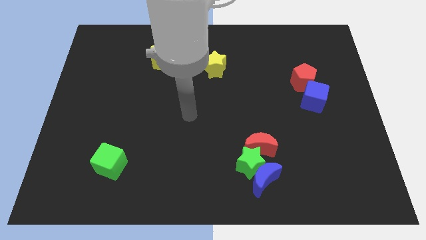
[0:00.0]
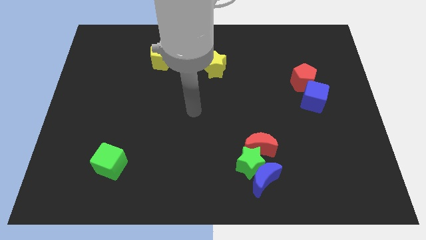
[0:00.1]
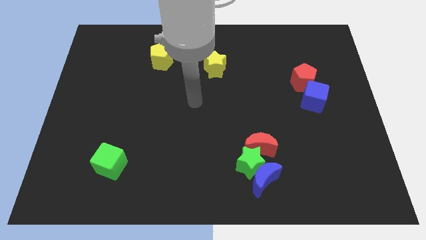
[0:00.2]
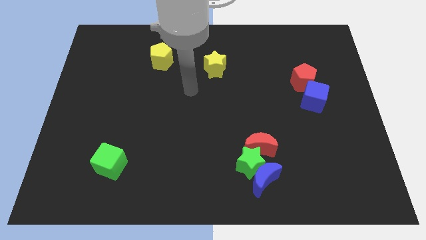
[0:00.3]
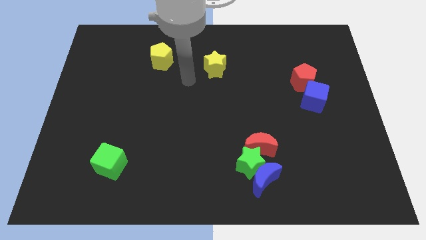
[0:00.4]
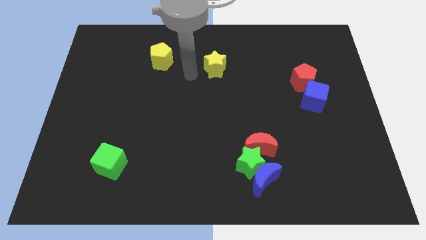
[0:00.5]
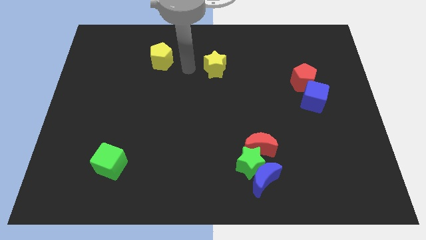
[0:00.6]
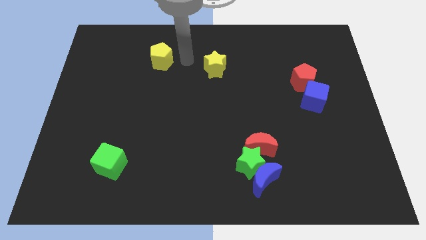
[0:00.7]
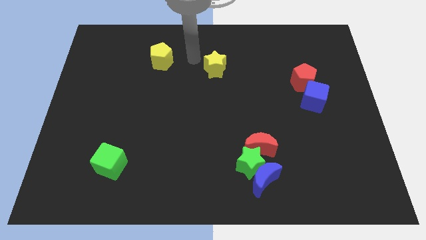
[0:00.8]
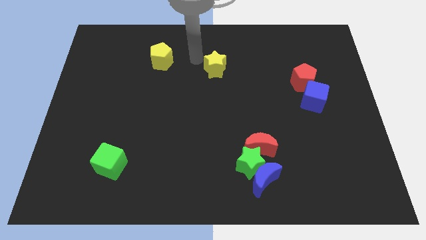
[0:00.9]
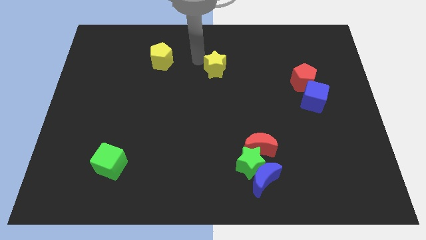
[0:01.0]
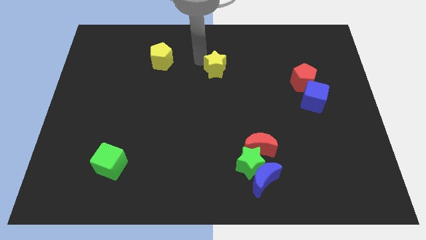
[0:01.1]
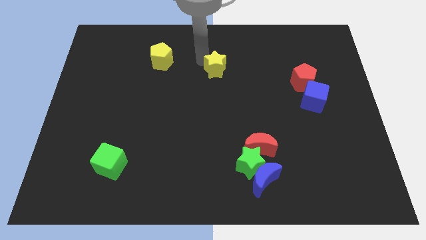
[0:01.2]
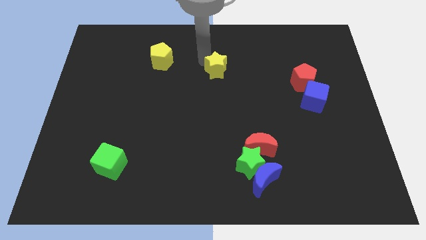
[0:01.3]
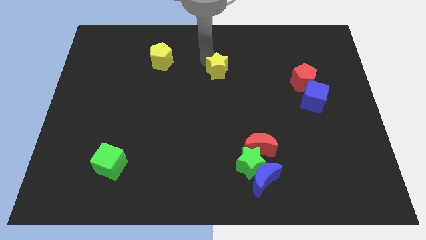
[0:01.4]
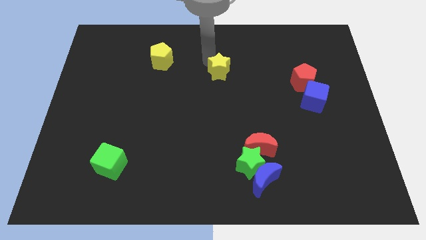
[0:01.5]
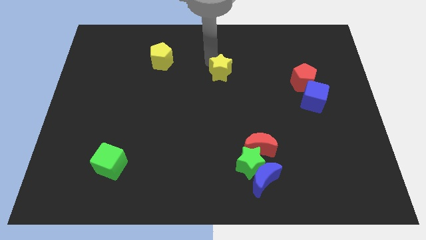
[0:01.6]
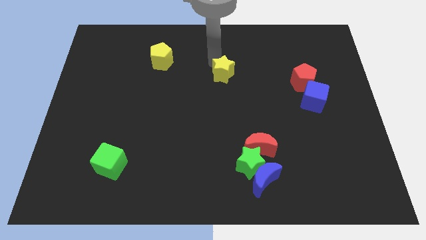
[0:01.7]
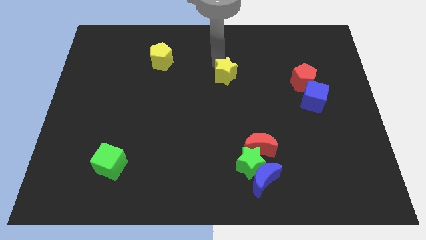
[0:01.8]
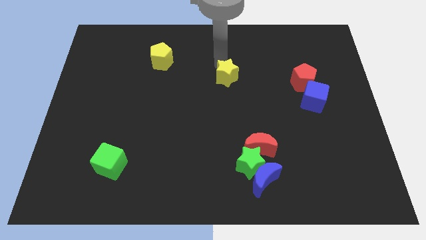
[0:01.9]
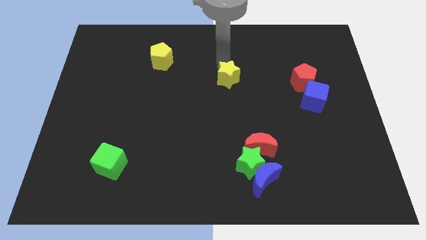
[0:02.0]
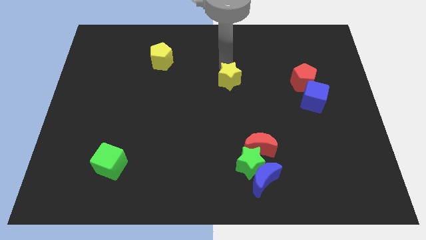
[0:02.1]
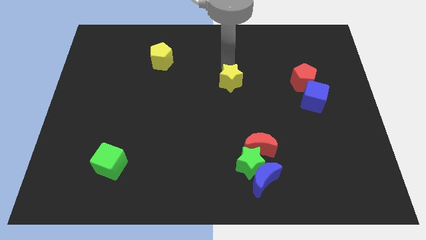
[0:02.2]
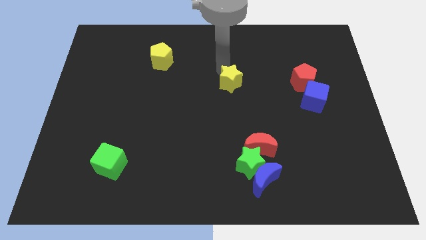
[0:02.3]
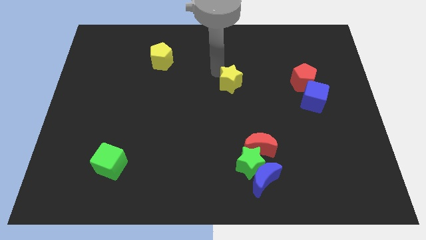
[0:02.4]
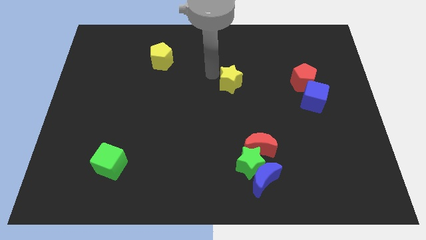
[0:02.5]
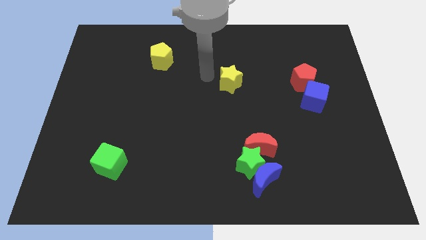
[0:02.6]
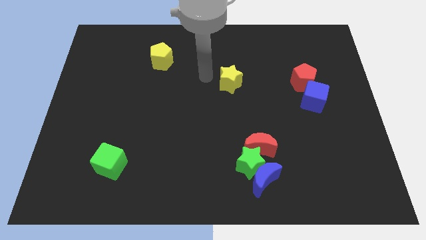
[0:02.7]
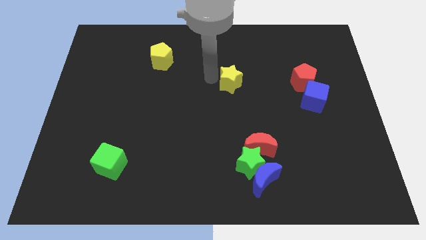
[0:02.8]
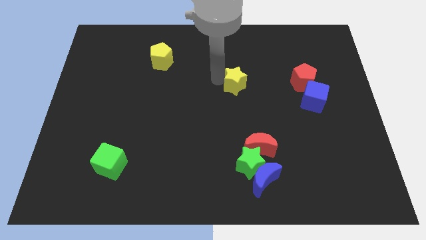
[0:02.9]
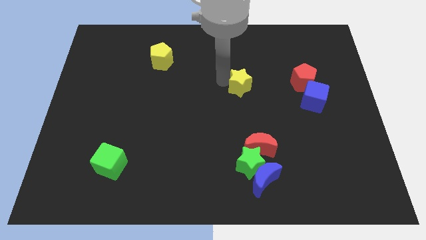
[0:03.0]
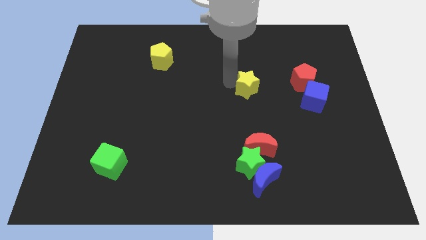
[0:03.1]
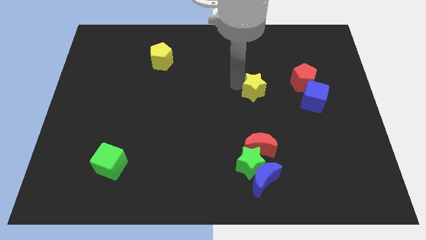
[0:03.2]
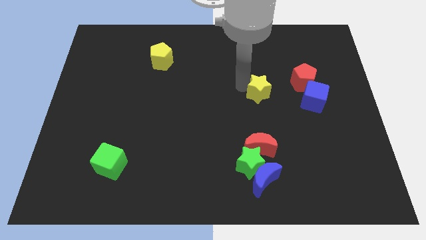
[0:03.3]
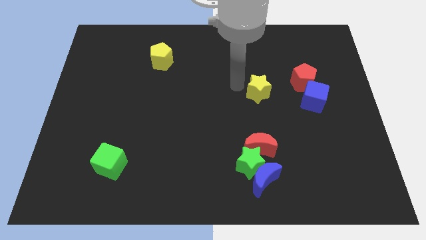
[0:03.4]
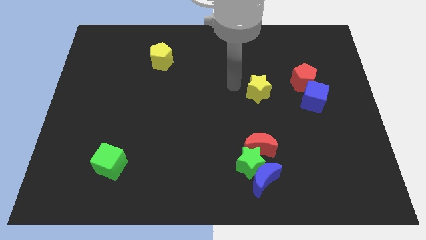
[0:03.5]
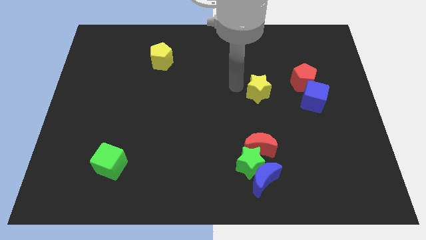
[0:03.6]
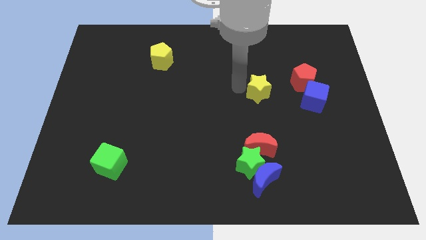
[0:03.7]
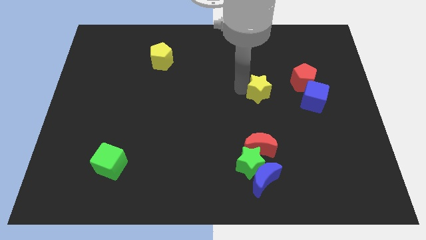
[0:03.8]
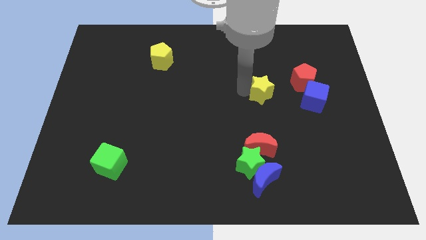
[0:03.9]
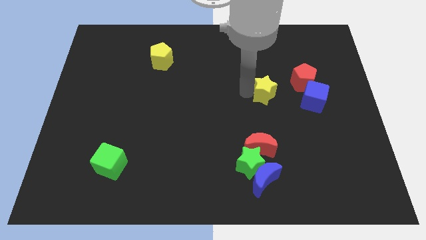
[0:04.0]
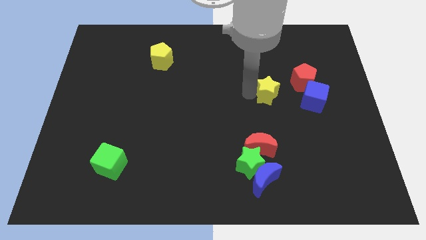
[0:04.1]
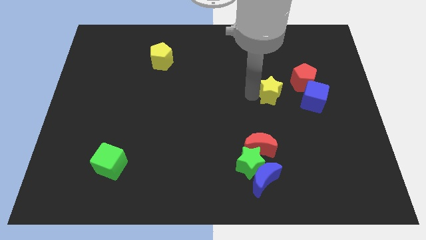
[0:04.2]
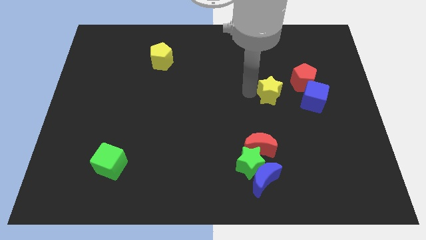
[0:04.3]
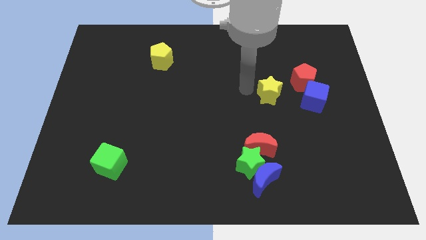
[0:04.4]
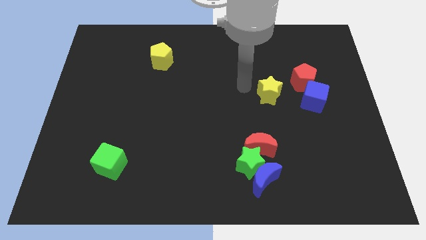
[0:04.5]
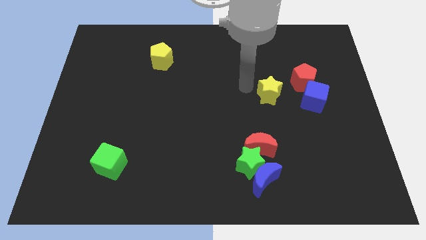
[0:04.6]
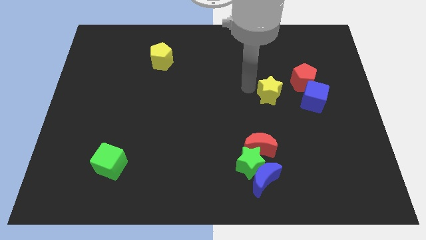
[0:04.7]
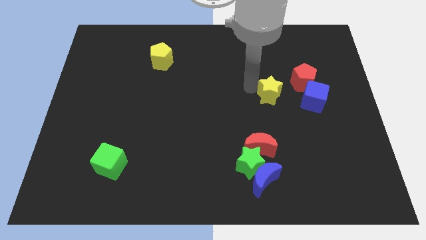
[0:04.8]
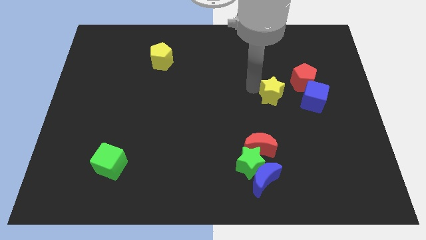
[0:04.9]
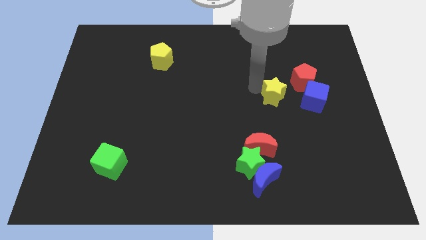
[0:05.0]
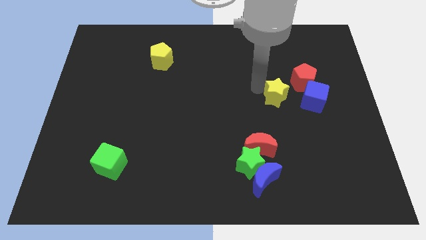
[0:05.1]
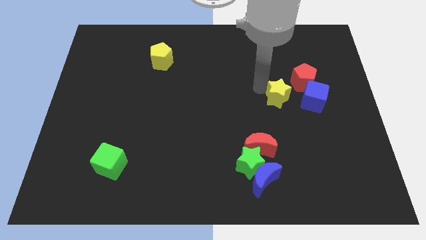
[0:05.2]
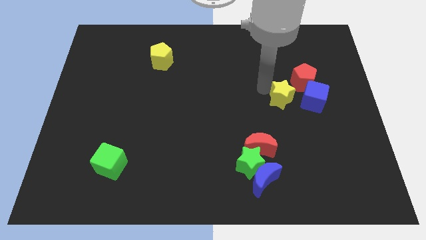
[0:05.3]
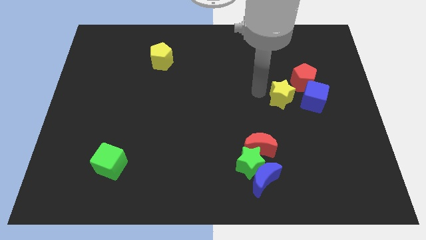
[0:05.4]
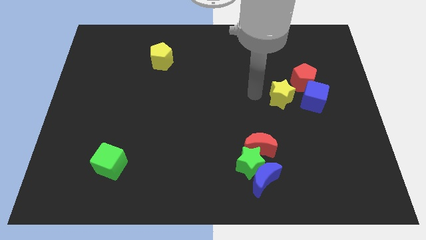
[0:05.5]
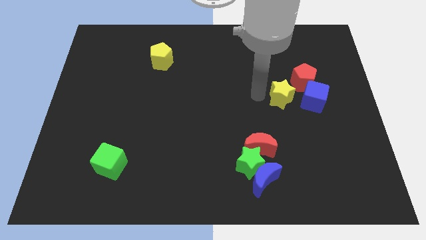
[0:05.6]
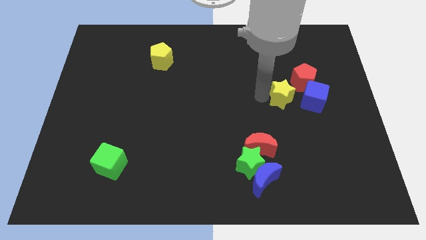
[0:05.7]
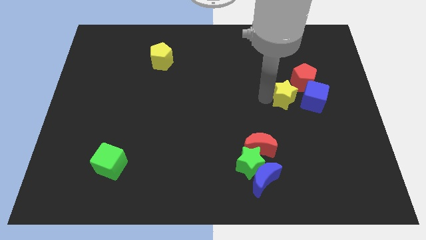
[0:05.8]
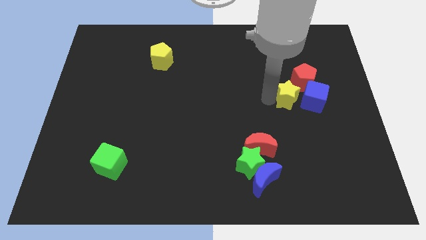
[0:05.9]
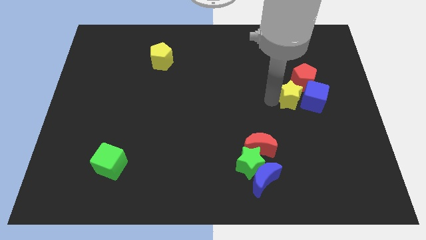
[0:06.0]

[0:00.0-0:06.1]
slide the yellow star to the blue cube

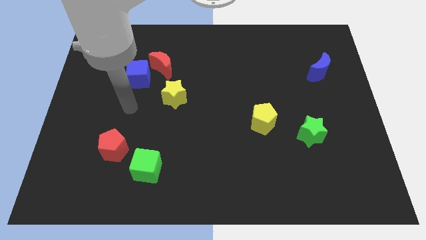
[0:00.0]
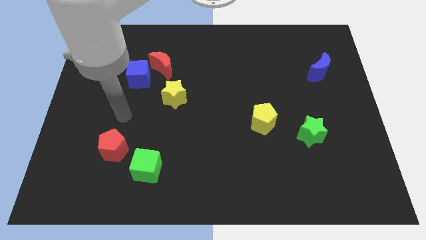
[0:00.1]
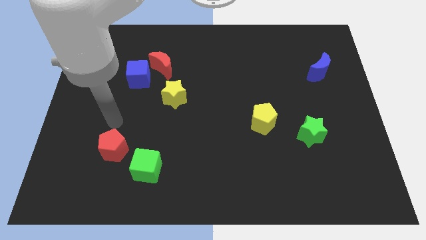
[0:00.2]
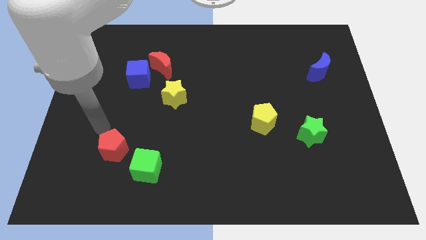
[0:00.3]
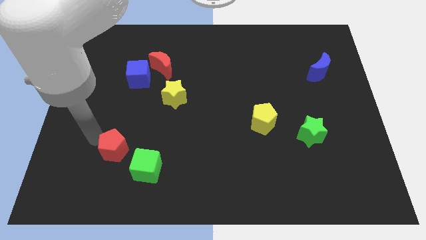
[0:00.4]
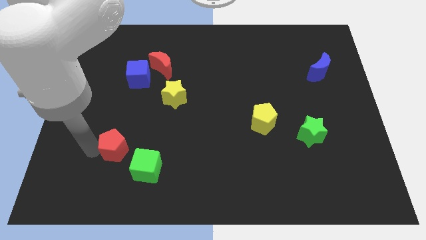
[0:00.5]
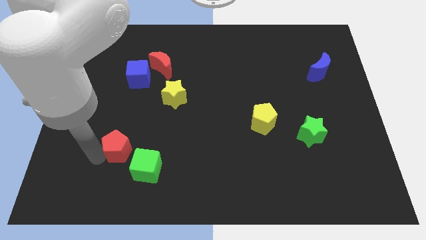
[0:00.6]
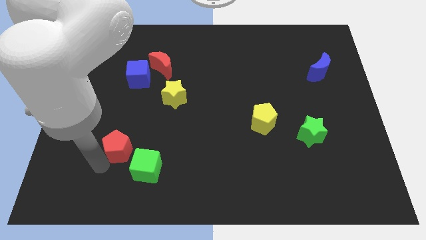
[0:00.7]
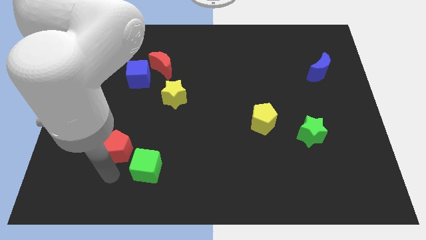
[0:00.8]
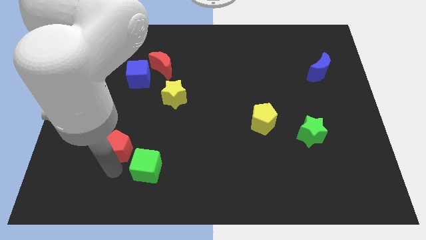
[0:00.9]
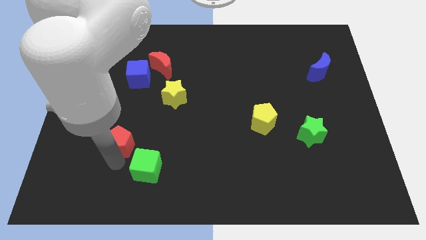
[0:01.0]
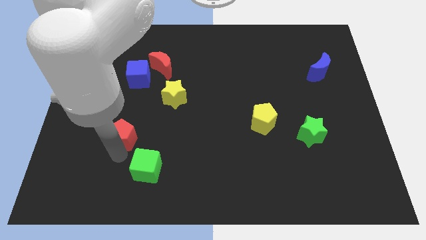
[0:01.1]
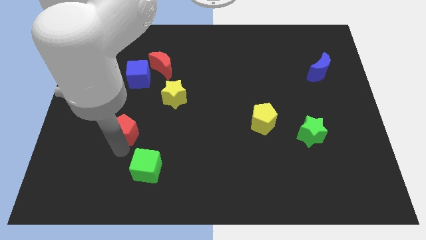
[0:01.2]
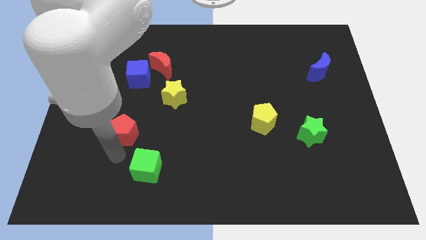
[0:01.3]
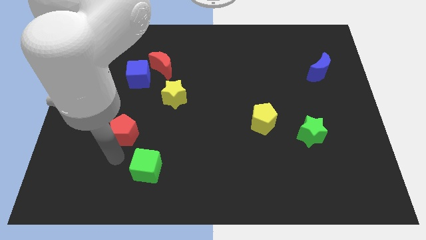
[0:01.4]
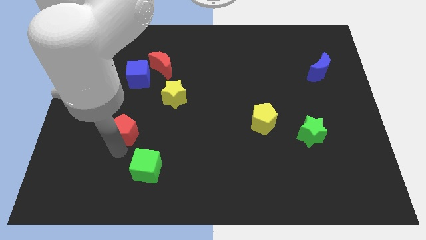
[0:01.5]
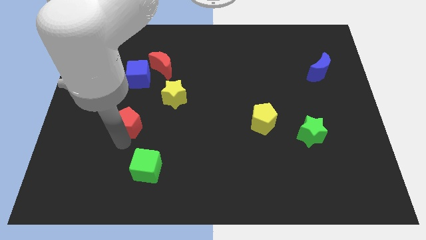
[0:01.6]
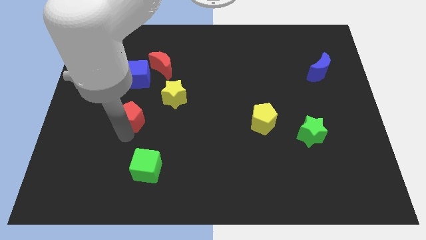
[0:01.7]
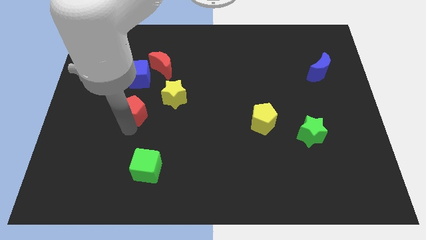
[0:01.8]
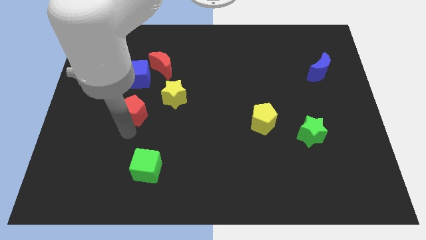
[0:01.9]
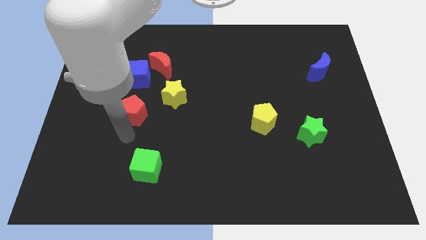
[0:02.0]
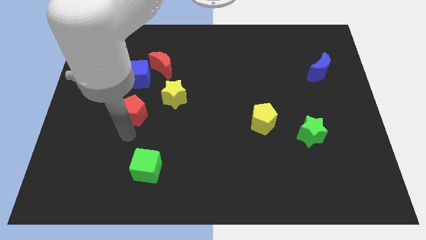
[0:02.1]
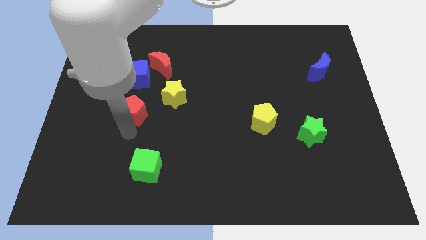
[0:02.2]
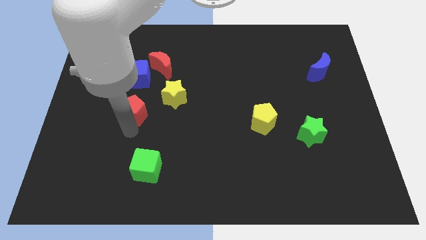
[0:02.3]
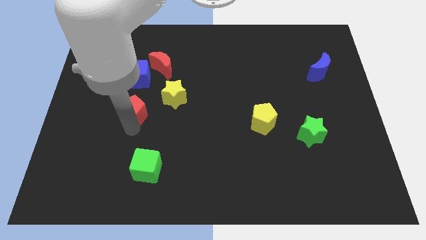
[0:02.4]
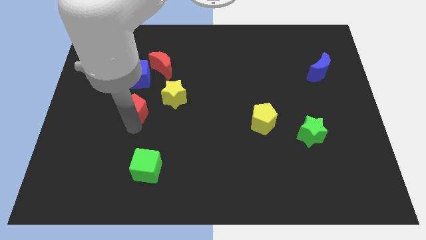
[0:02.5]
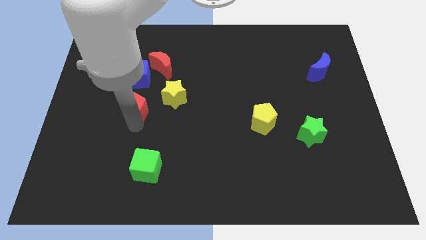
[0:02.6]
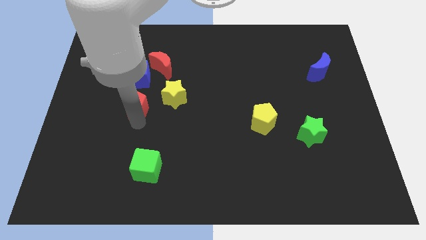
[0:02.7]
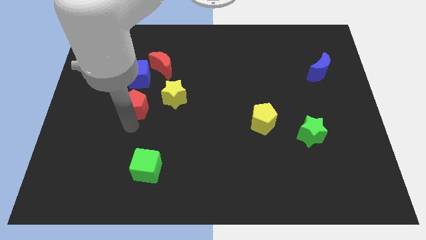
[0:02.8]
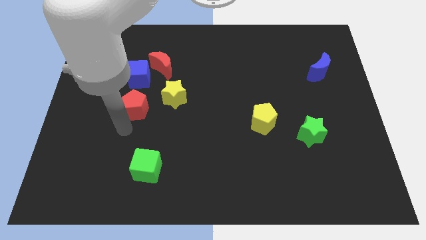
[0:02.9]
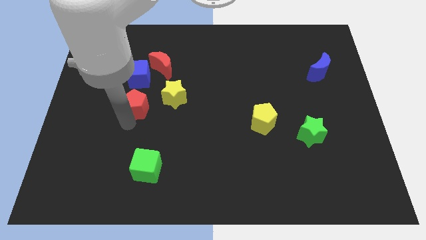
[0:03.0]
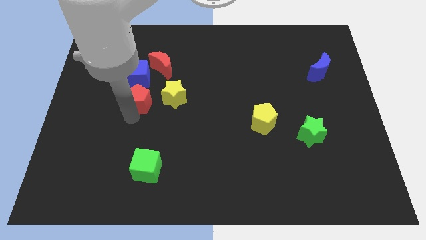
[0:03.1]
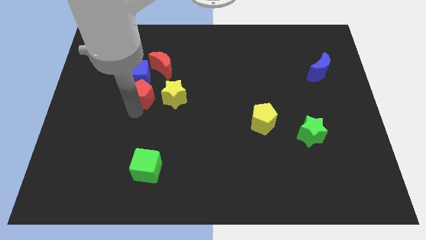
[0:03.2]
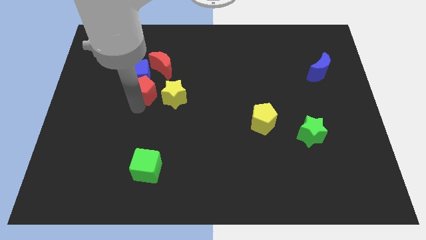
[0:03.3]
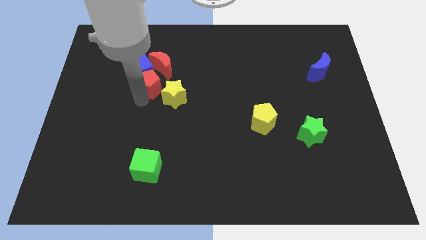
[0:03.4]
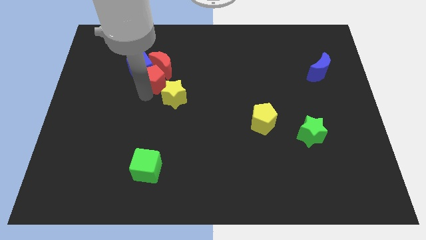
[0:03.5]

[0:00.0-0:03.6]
push the red pentagon next to the red moon
